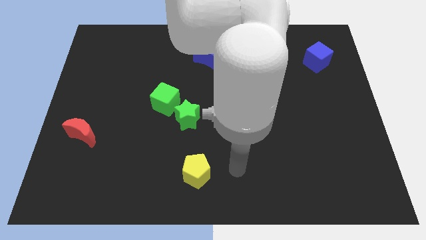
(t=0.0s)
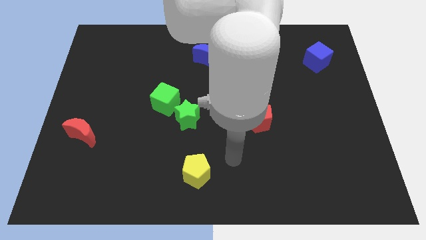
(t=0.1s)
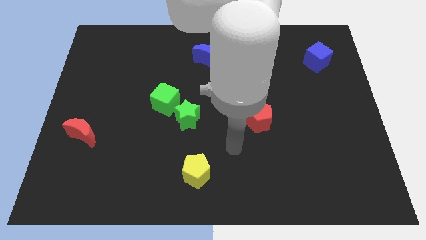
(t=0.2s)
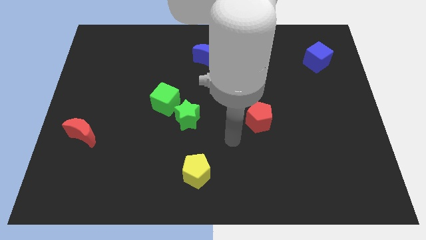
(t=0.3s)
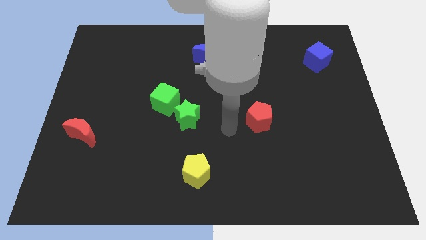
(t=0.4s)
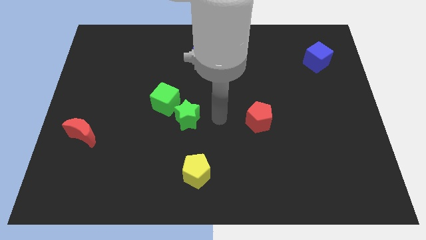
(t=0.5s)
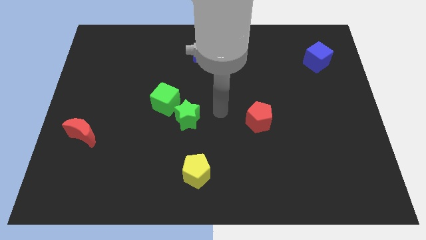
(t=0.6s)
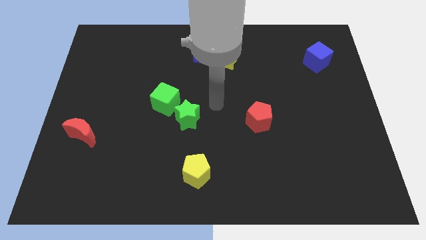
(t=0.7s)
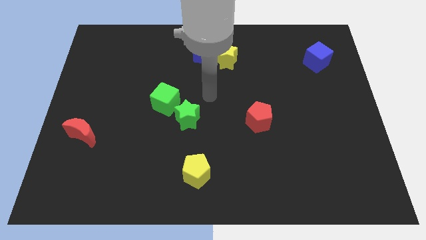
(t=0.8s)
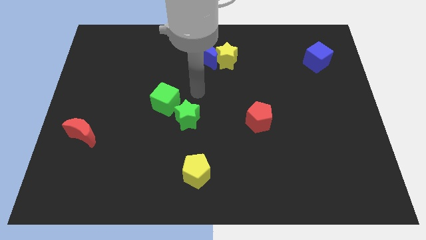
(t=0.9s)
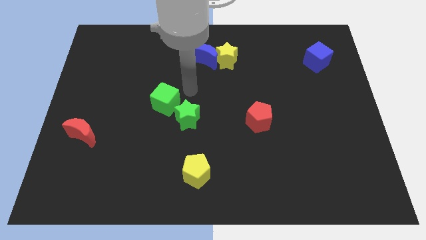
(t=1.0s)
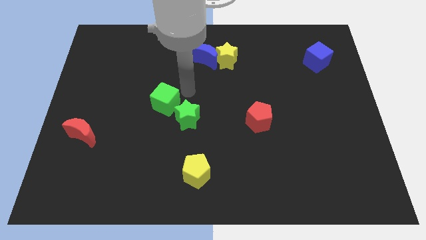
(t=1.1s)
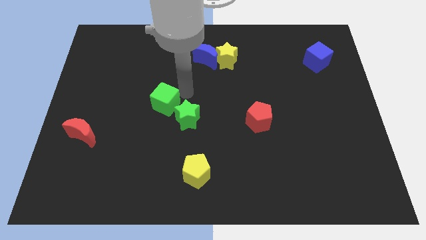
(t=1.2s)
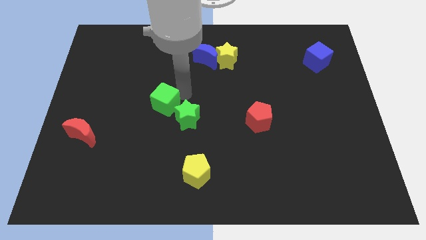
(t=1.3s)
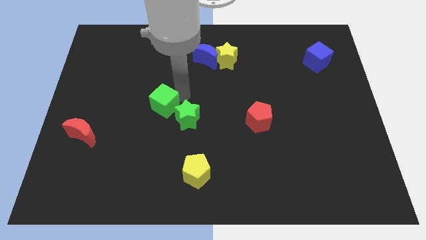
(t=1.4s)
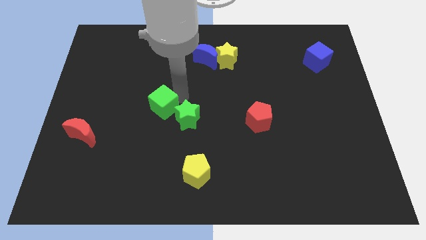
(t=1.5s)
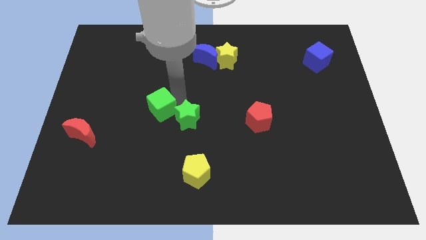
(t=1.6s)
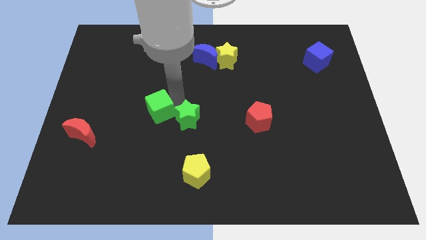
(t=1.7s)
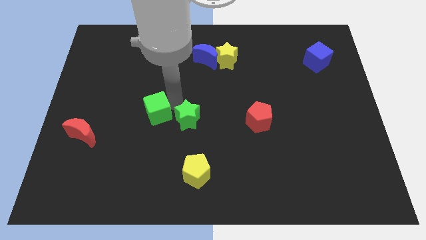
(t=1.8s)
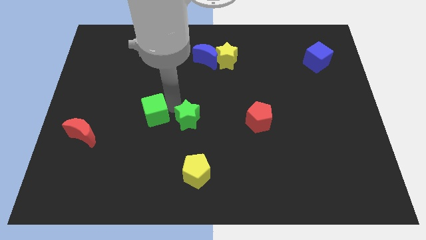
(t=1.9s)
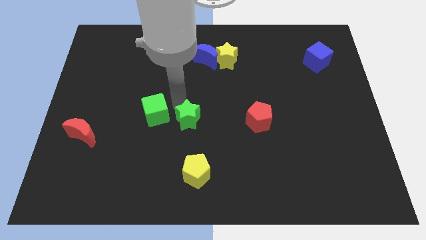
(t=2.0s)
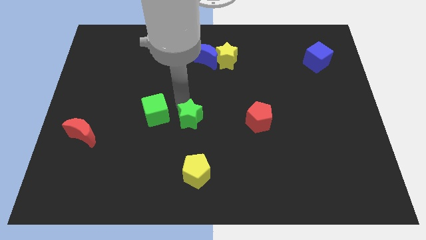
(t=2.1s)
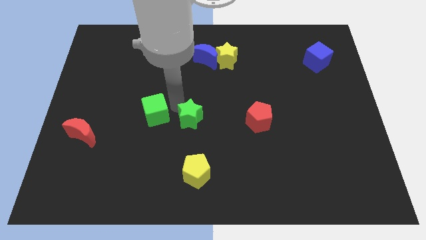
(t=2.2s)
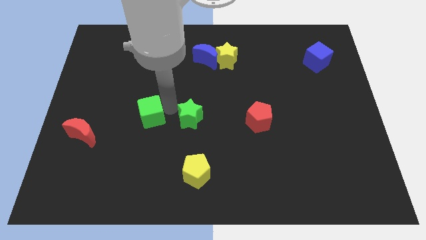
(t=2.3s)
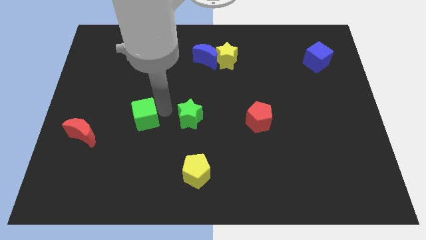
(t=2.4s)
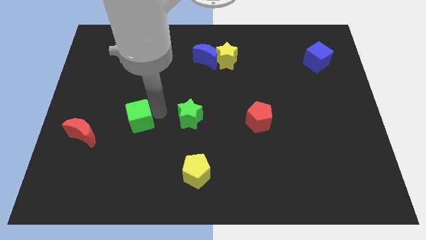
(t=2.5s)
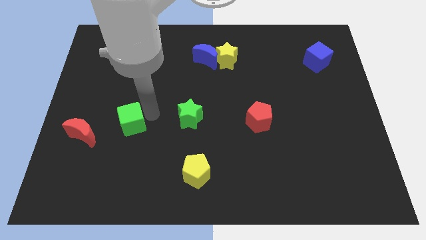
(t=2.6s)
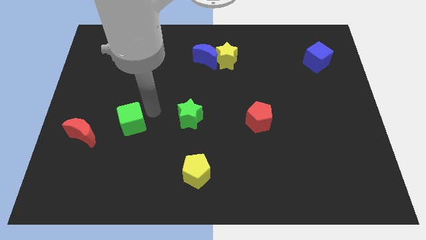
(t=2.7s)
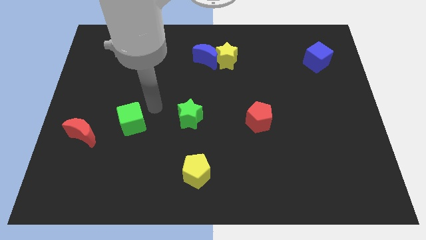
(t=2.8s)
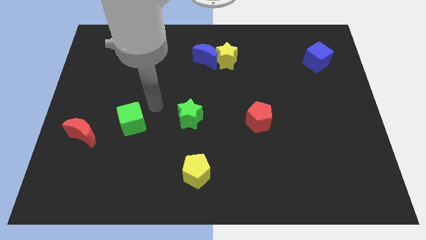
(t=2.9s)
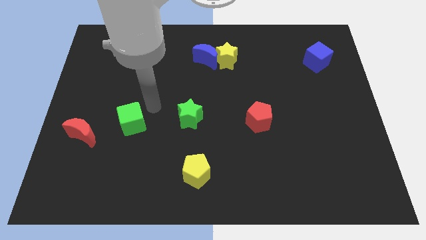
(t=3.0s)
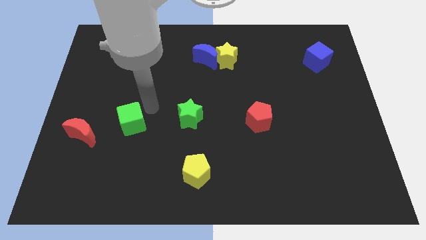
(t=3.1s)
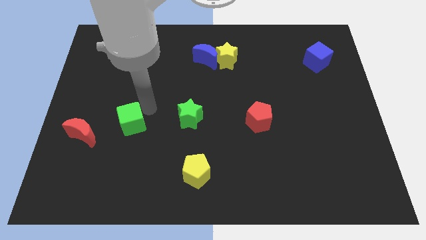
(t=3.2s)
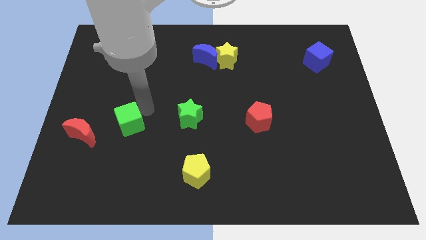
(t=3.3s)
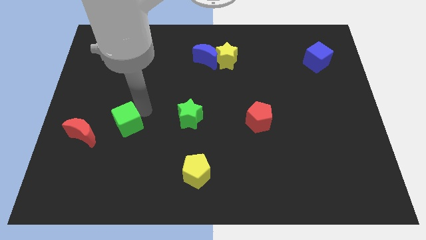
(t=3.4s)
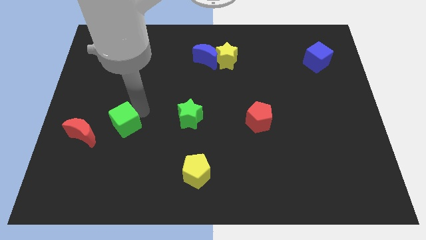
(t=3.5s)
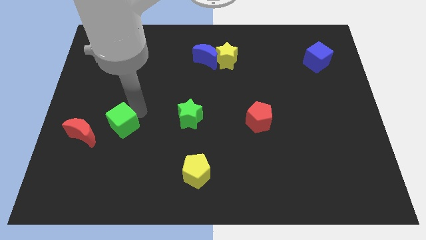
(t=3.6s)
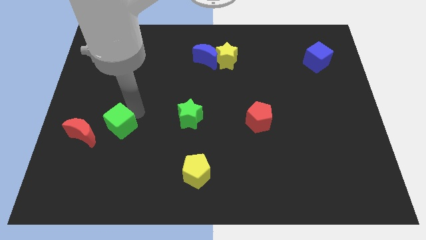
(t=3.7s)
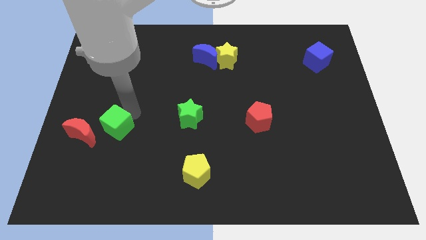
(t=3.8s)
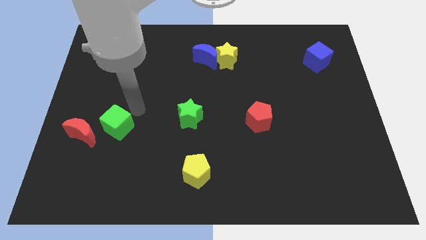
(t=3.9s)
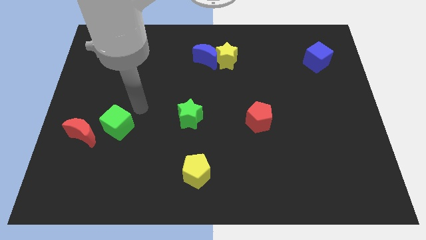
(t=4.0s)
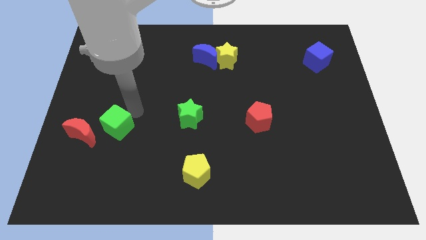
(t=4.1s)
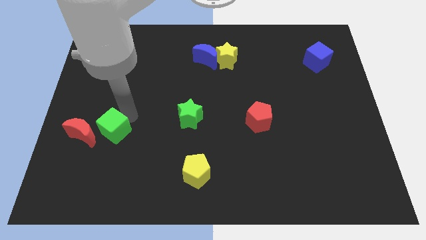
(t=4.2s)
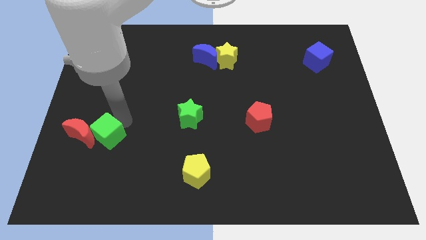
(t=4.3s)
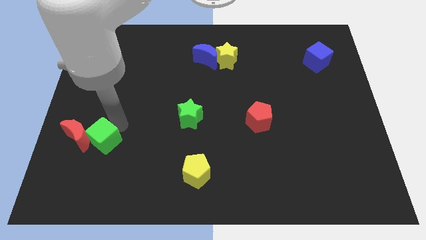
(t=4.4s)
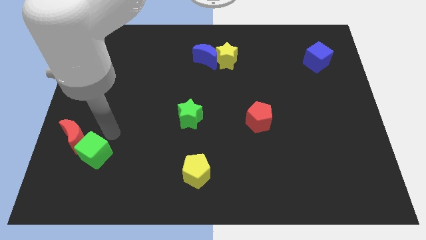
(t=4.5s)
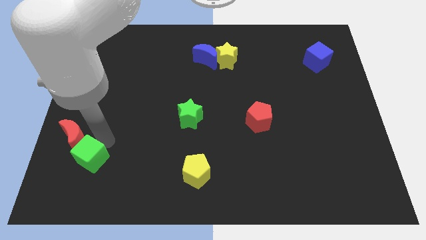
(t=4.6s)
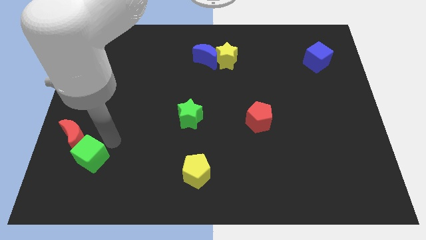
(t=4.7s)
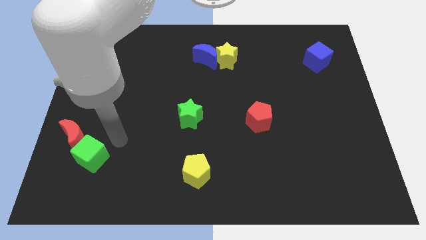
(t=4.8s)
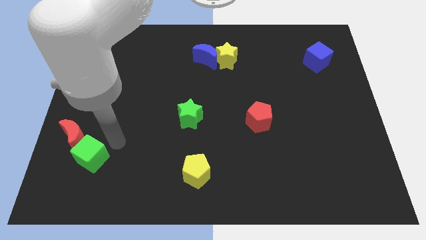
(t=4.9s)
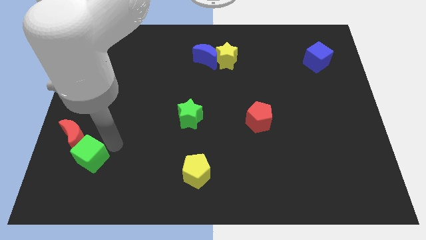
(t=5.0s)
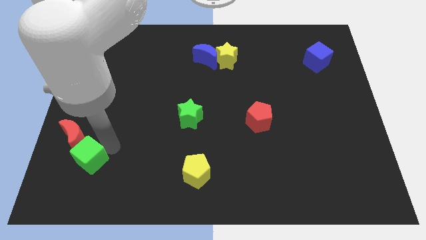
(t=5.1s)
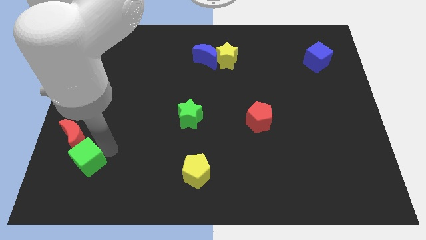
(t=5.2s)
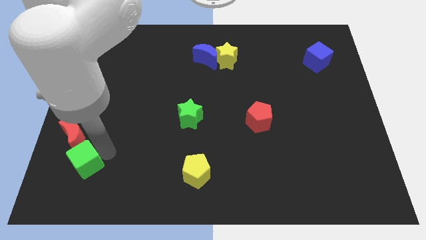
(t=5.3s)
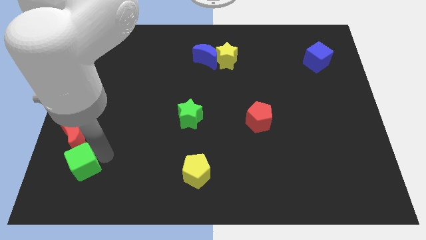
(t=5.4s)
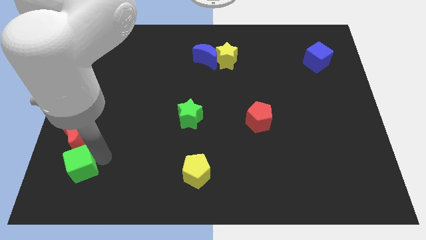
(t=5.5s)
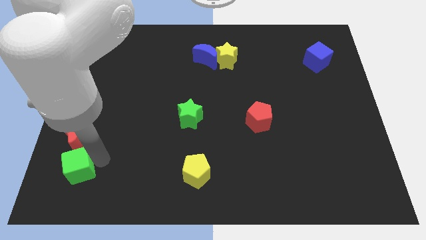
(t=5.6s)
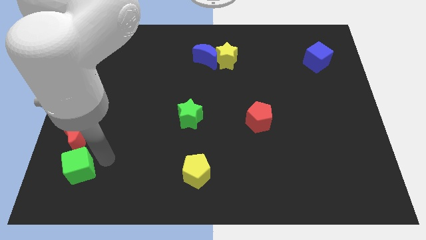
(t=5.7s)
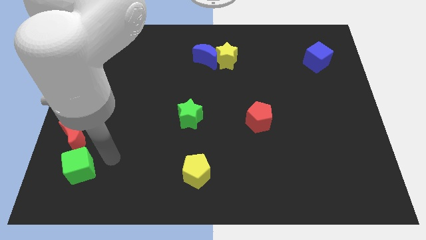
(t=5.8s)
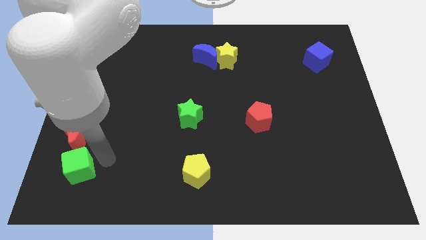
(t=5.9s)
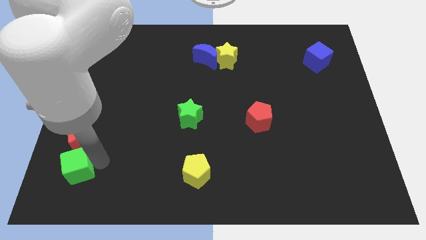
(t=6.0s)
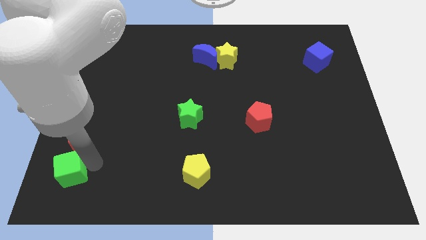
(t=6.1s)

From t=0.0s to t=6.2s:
slide the green cube to the lower left corner
